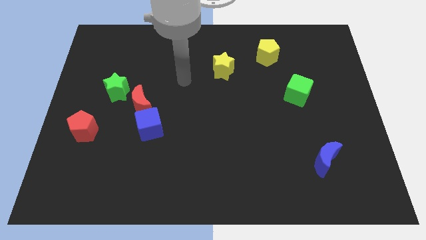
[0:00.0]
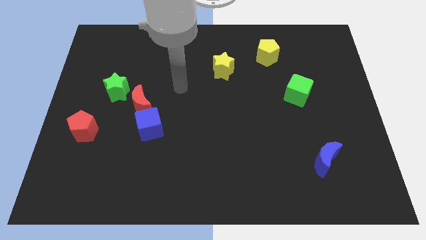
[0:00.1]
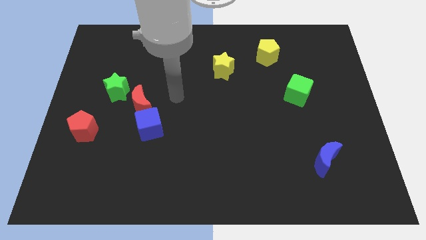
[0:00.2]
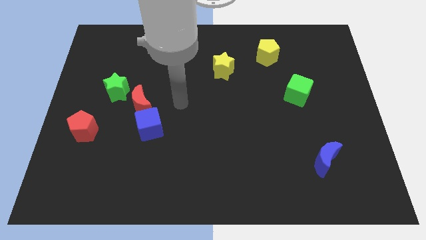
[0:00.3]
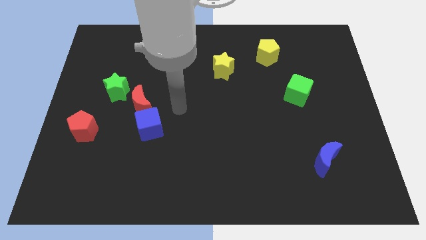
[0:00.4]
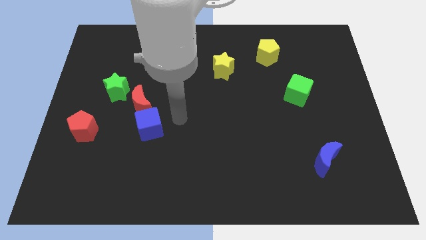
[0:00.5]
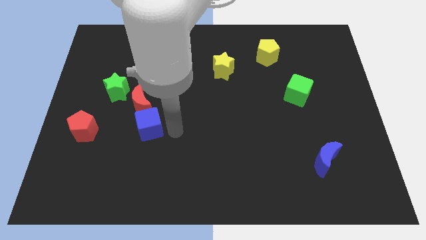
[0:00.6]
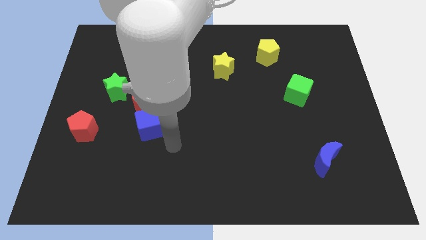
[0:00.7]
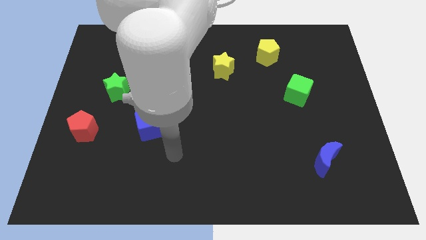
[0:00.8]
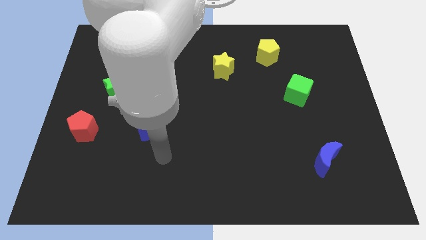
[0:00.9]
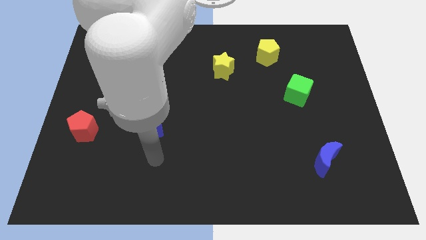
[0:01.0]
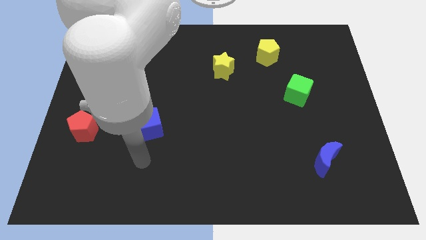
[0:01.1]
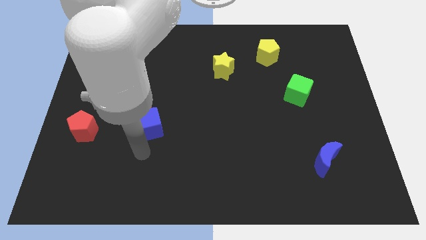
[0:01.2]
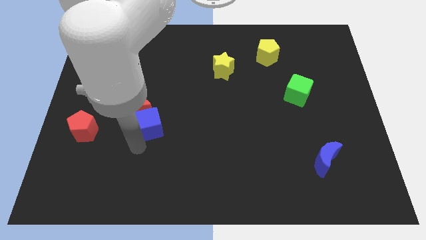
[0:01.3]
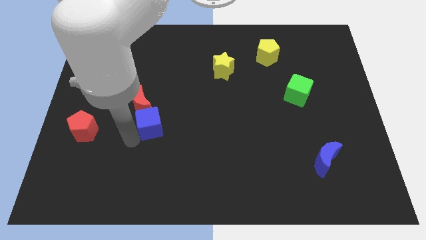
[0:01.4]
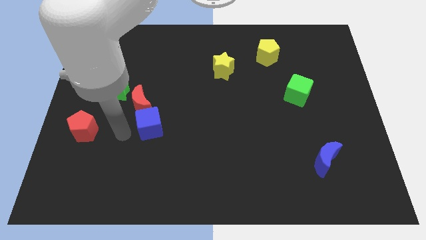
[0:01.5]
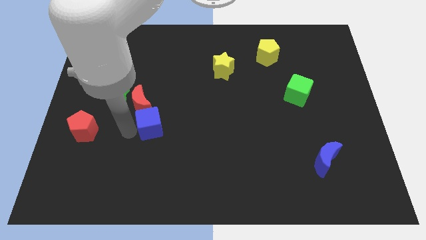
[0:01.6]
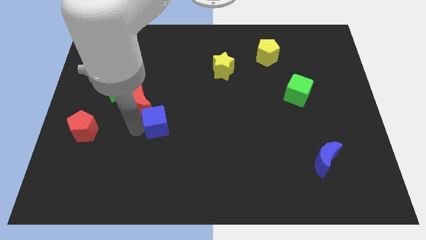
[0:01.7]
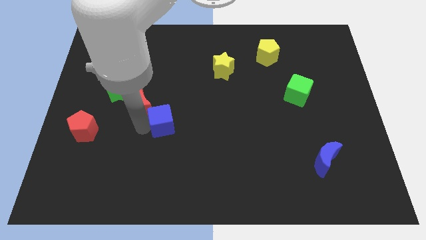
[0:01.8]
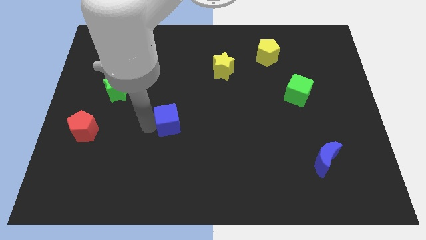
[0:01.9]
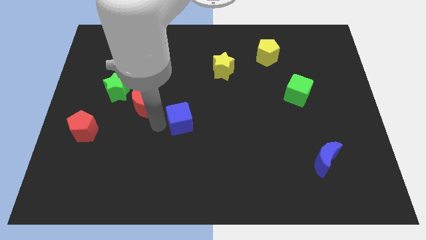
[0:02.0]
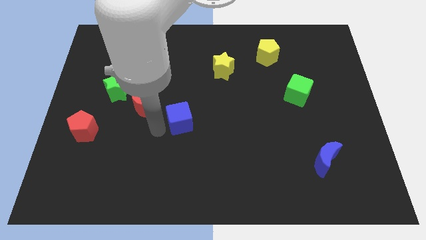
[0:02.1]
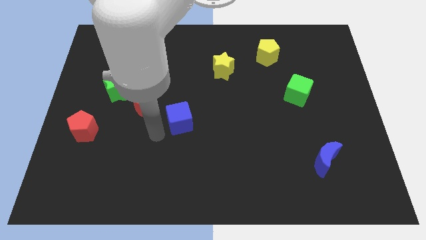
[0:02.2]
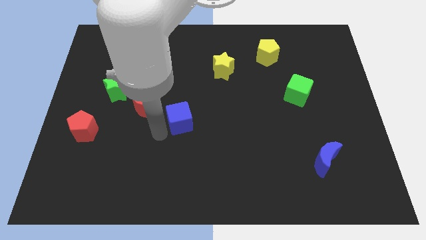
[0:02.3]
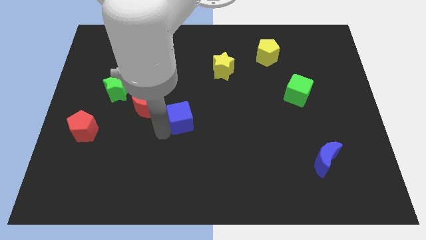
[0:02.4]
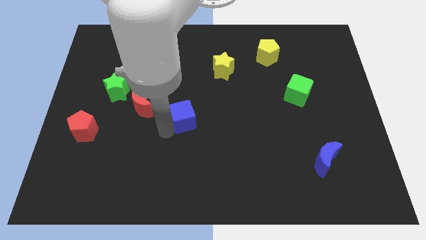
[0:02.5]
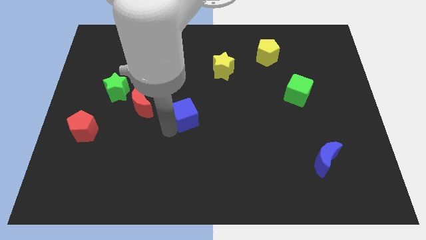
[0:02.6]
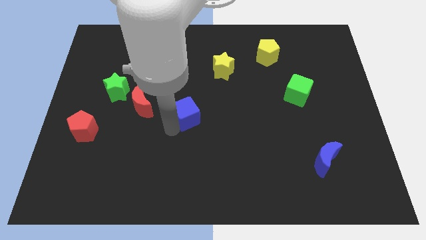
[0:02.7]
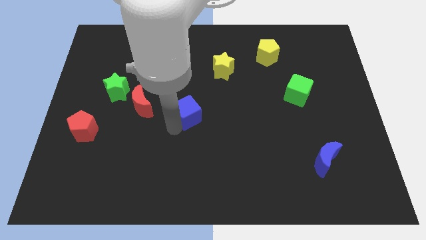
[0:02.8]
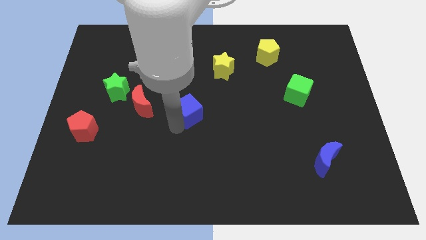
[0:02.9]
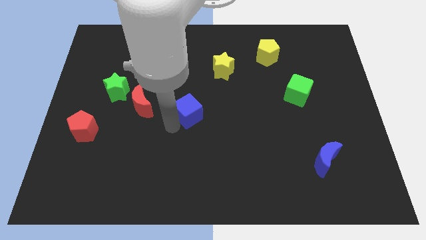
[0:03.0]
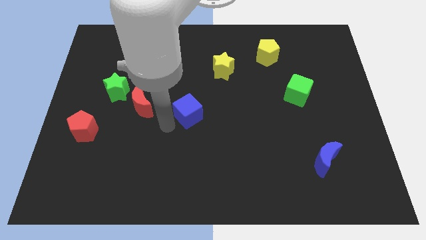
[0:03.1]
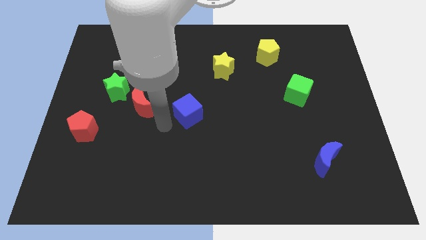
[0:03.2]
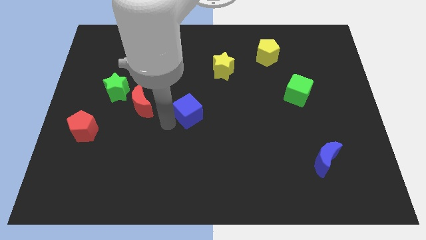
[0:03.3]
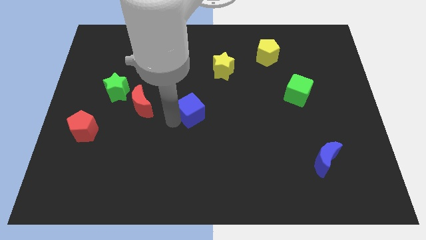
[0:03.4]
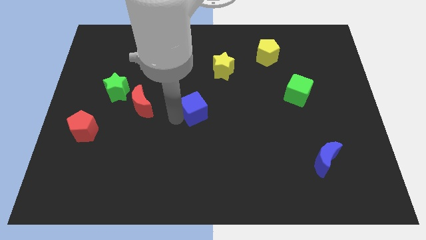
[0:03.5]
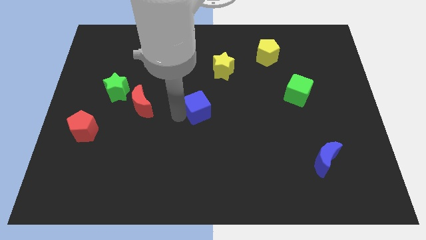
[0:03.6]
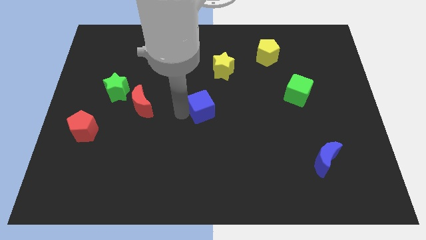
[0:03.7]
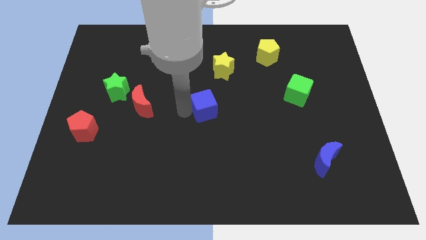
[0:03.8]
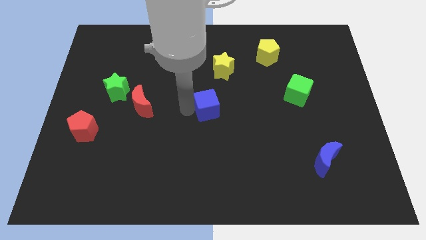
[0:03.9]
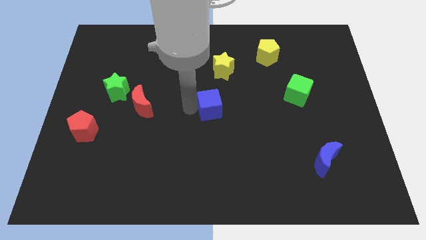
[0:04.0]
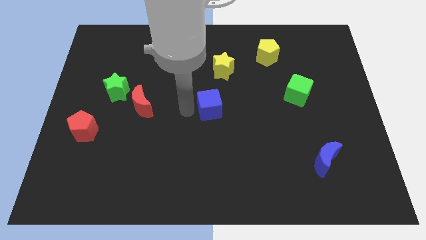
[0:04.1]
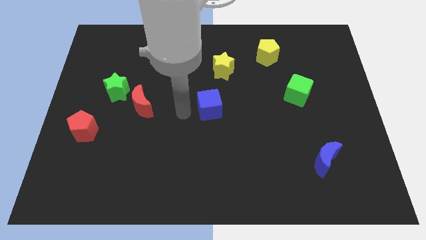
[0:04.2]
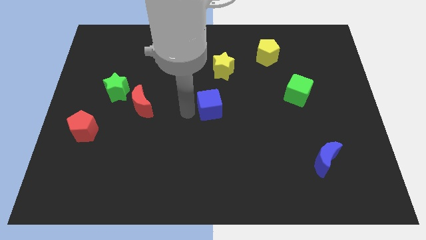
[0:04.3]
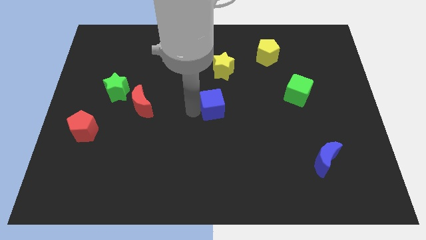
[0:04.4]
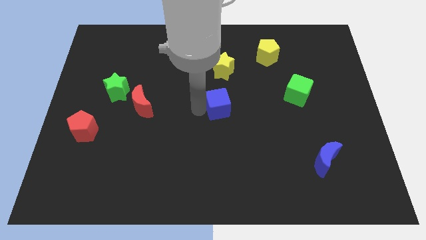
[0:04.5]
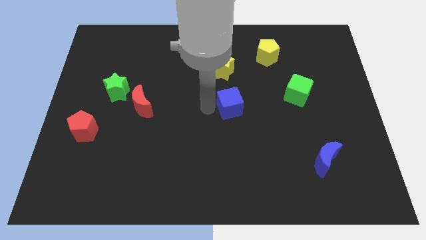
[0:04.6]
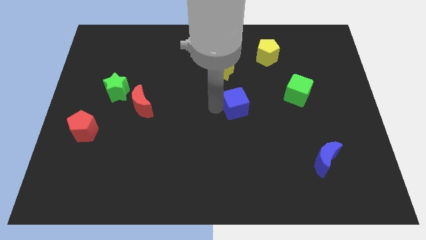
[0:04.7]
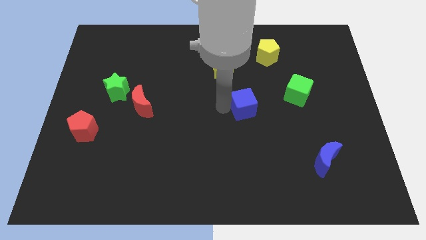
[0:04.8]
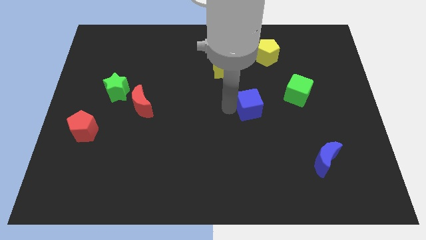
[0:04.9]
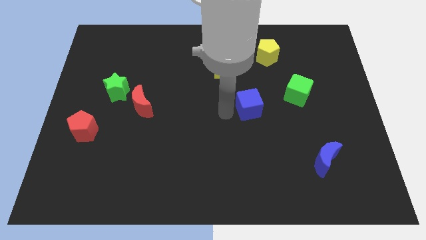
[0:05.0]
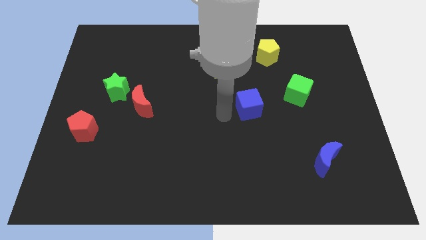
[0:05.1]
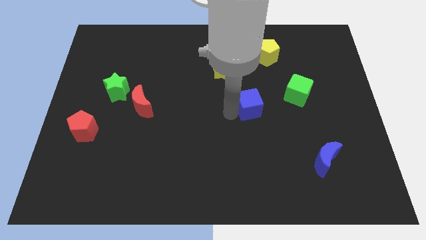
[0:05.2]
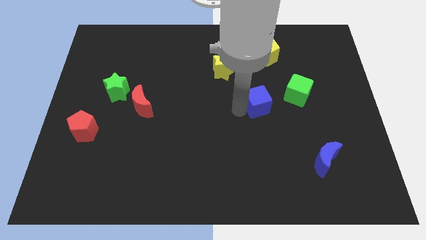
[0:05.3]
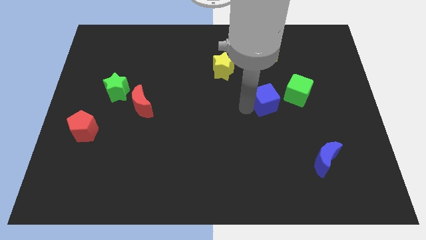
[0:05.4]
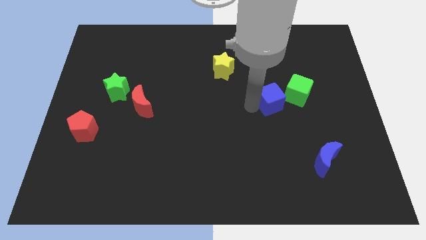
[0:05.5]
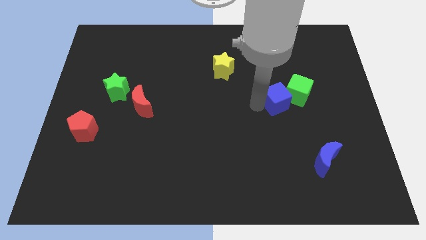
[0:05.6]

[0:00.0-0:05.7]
slide the blue cube next to the green cube

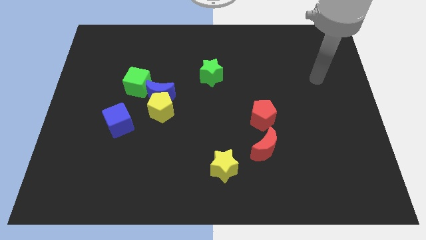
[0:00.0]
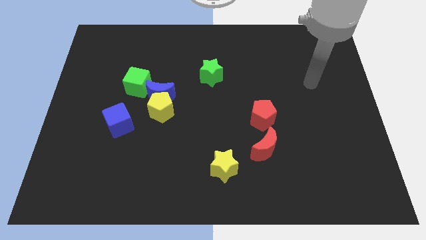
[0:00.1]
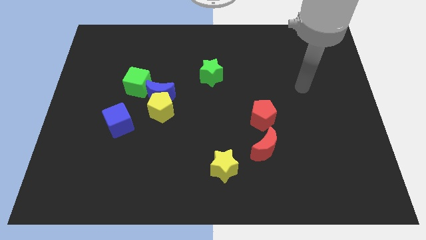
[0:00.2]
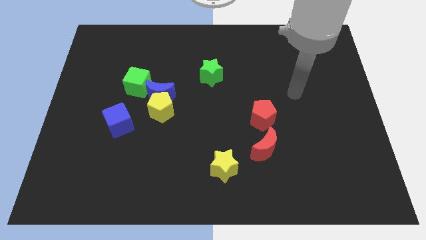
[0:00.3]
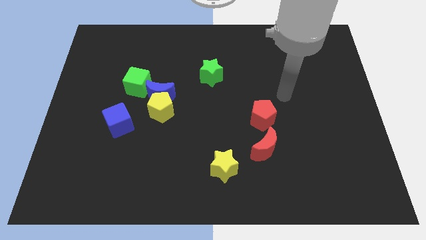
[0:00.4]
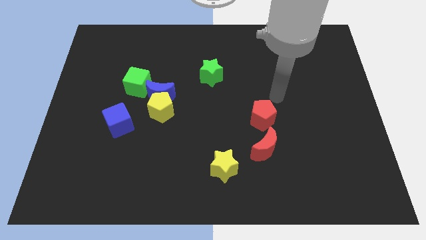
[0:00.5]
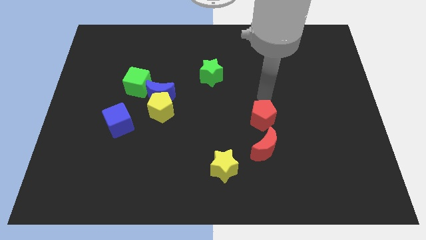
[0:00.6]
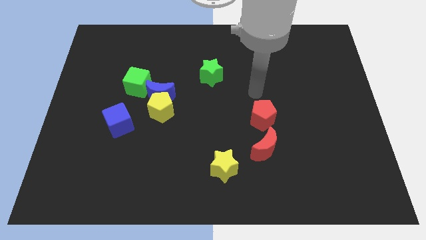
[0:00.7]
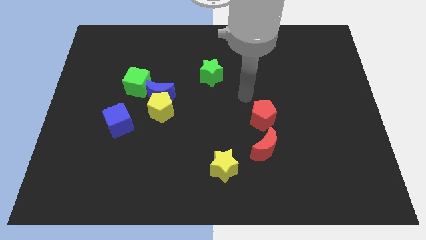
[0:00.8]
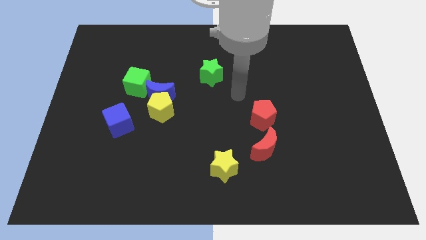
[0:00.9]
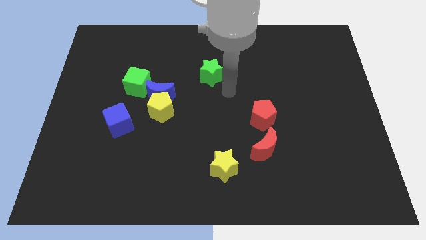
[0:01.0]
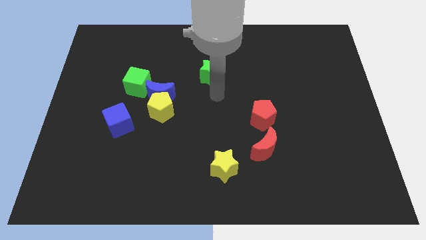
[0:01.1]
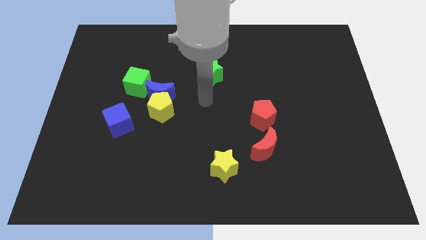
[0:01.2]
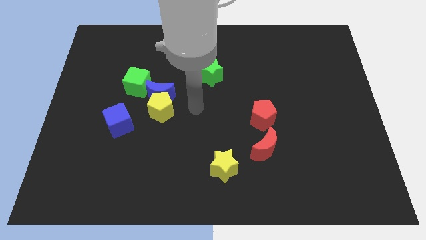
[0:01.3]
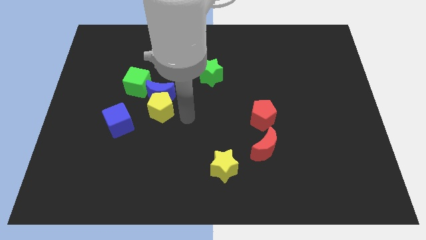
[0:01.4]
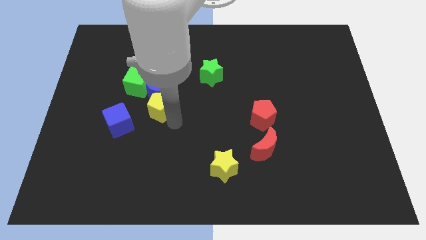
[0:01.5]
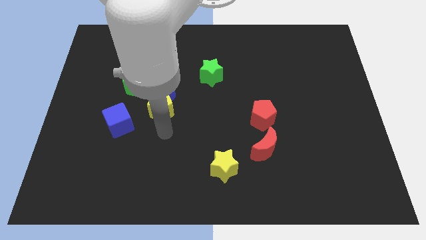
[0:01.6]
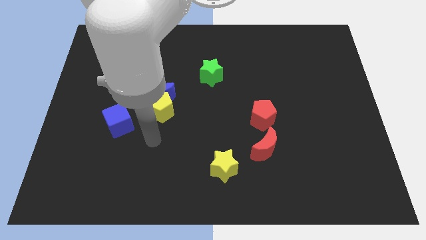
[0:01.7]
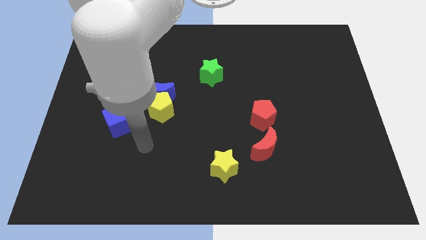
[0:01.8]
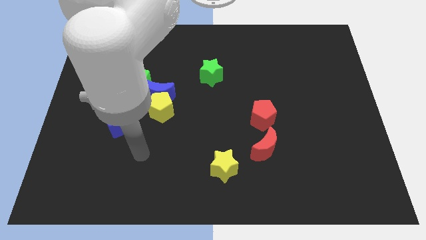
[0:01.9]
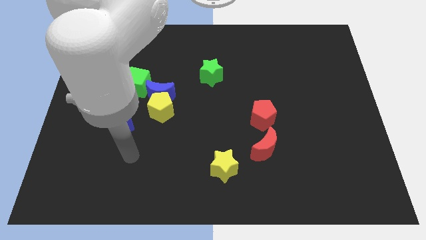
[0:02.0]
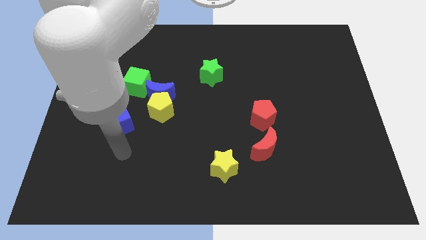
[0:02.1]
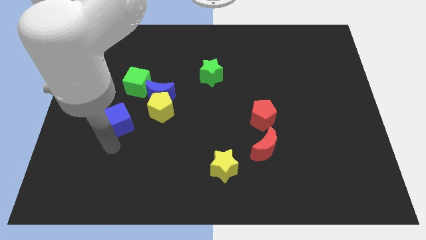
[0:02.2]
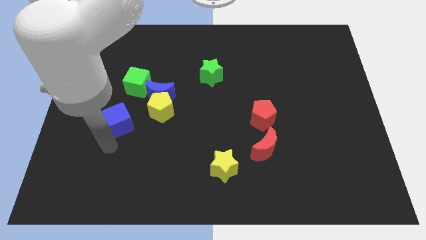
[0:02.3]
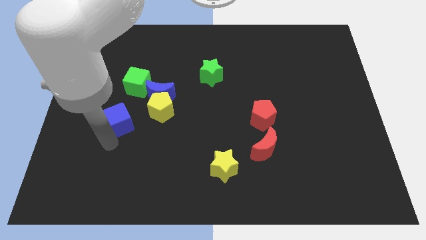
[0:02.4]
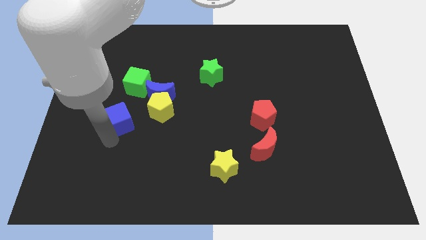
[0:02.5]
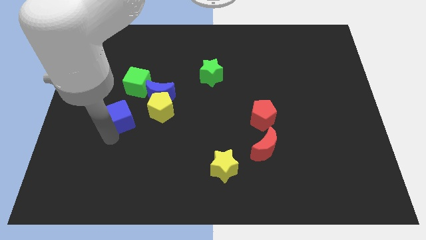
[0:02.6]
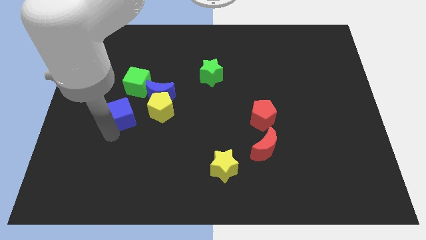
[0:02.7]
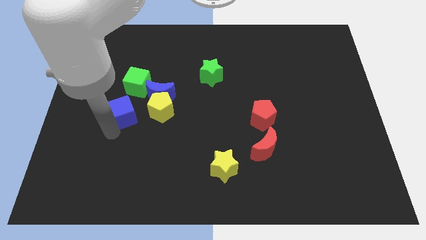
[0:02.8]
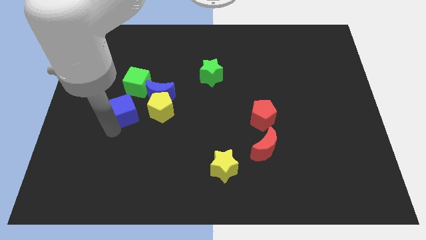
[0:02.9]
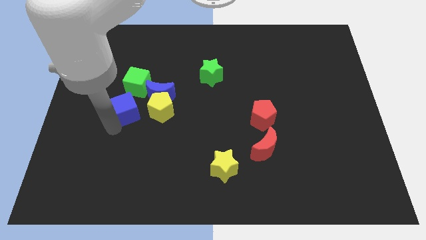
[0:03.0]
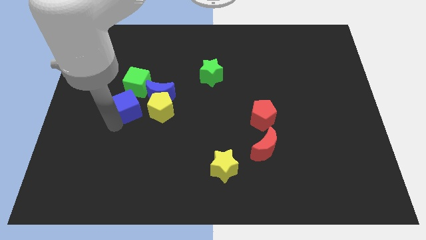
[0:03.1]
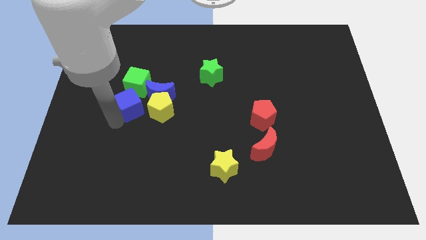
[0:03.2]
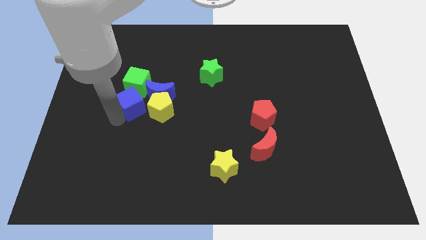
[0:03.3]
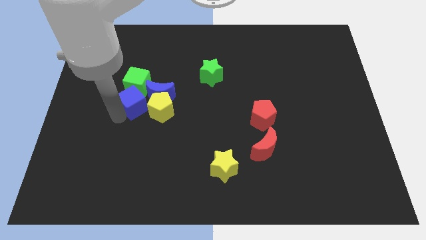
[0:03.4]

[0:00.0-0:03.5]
move the blue cube to the green cube
